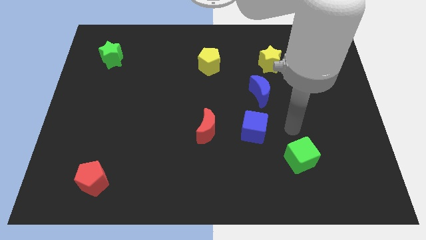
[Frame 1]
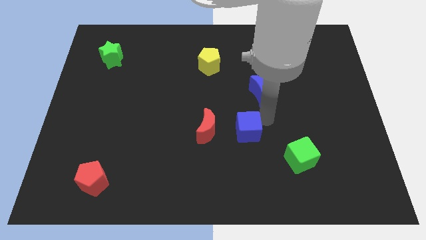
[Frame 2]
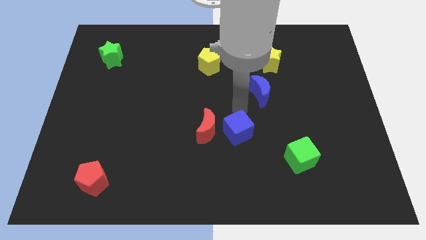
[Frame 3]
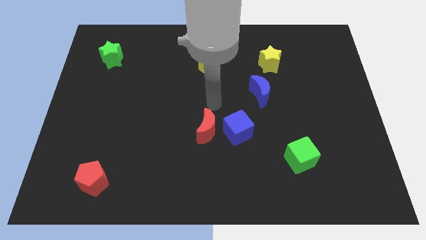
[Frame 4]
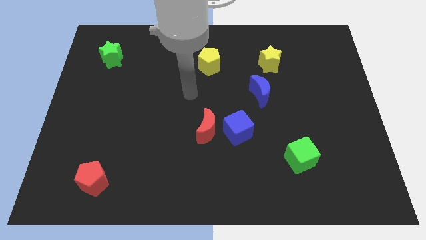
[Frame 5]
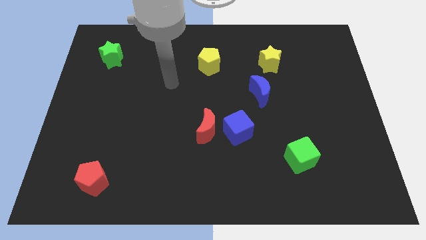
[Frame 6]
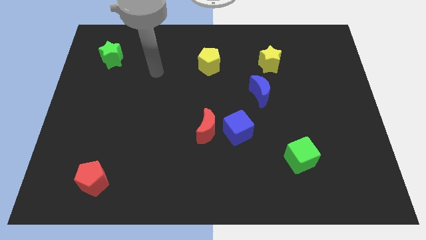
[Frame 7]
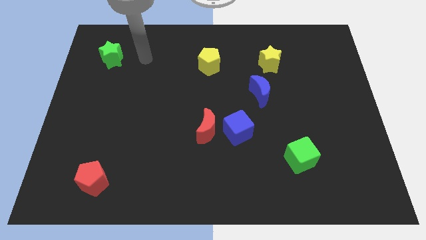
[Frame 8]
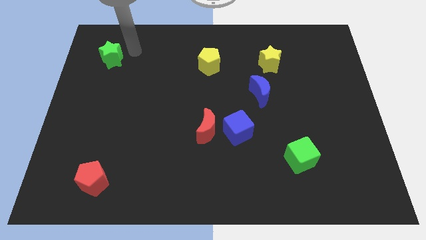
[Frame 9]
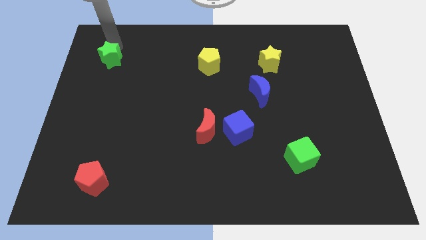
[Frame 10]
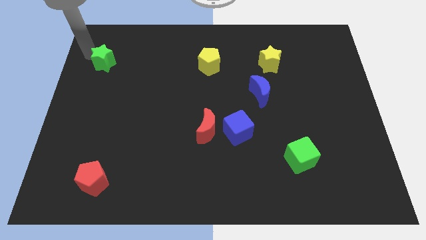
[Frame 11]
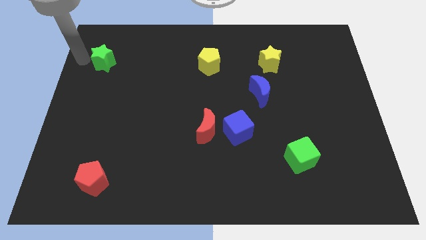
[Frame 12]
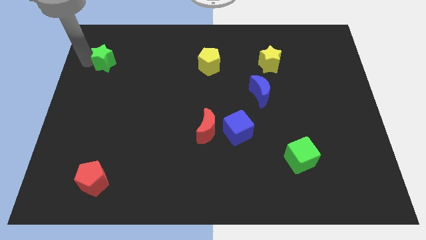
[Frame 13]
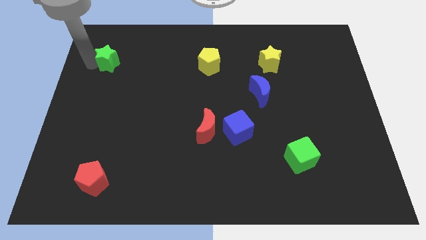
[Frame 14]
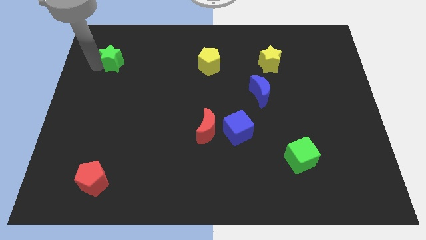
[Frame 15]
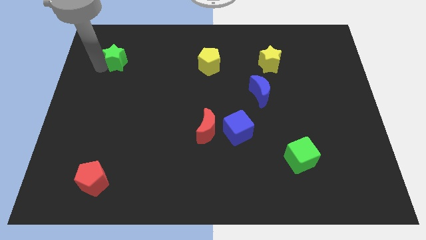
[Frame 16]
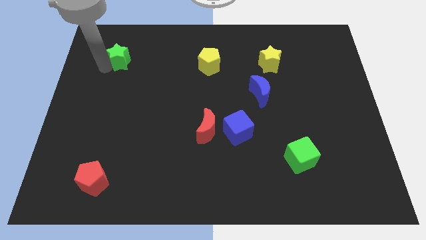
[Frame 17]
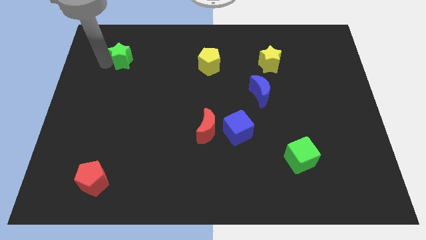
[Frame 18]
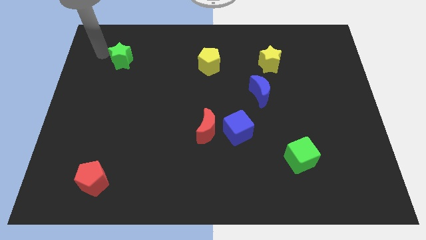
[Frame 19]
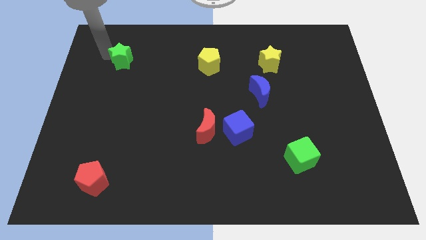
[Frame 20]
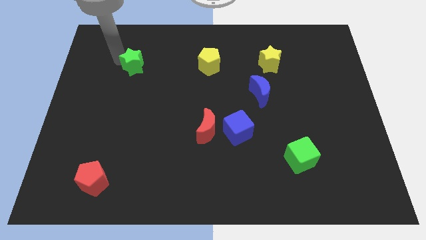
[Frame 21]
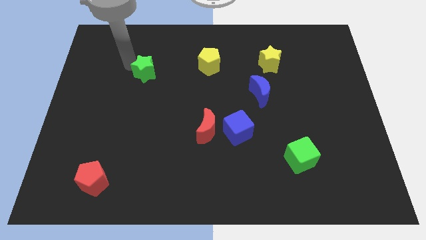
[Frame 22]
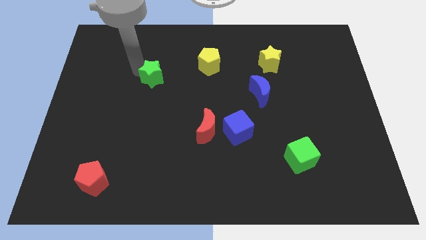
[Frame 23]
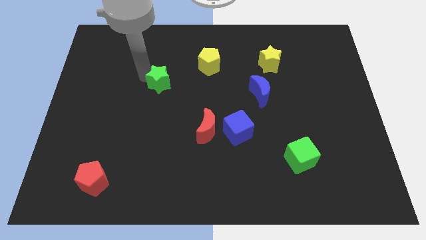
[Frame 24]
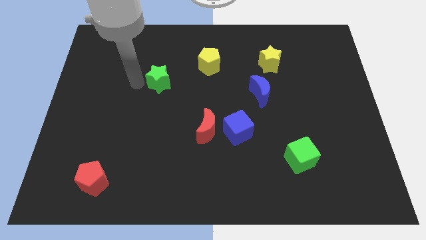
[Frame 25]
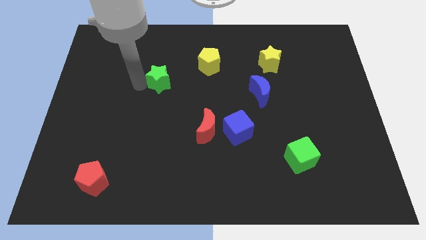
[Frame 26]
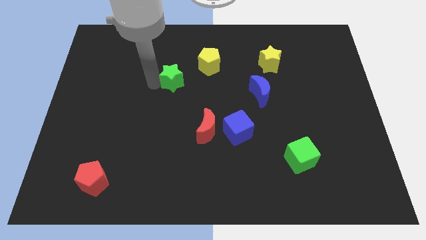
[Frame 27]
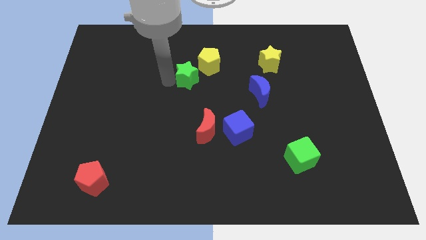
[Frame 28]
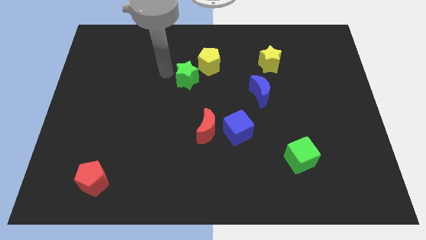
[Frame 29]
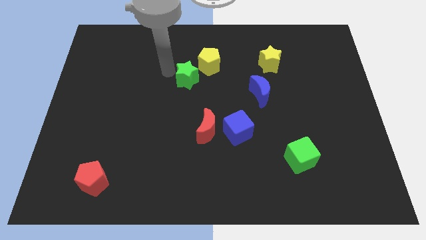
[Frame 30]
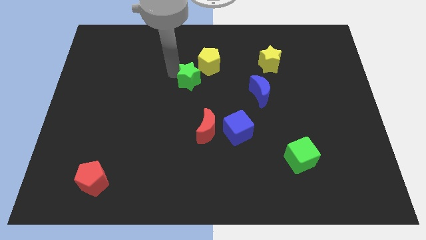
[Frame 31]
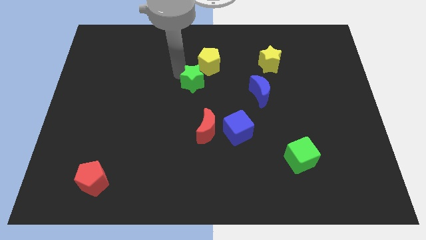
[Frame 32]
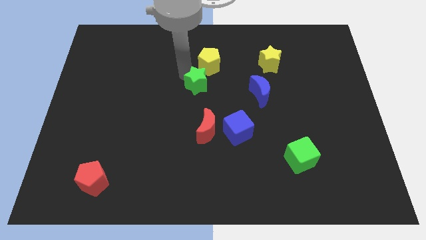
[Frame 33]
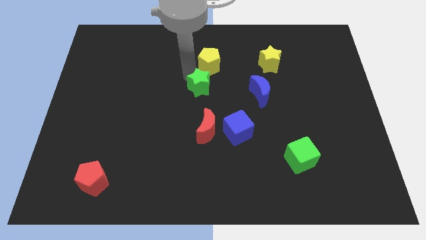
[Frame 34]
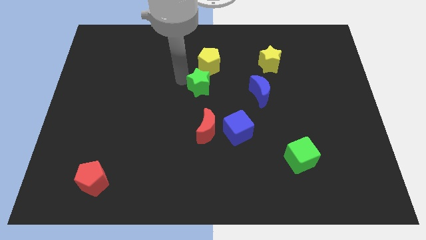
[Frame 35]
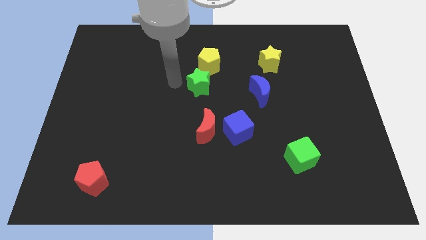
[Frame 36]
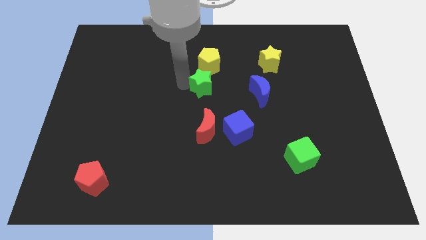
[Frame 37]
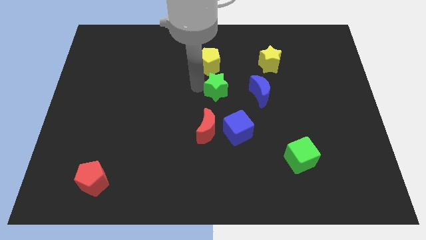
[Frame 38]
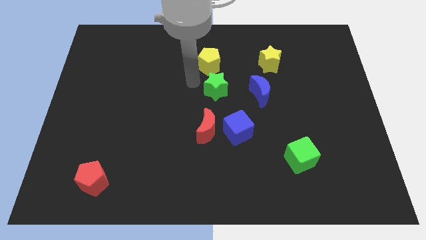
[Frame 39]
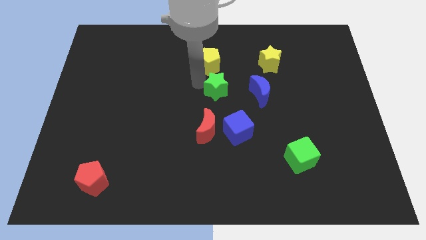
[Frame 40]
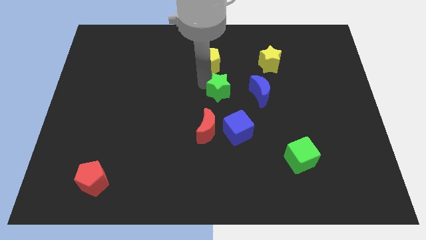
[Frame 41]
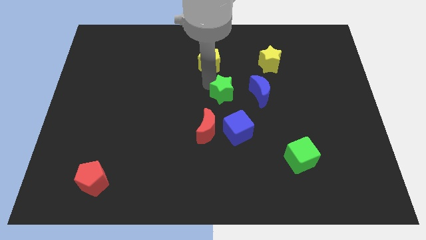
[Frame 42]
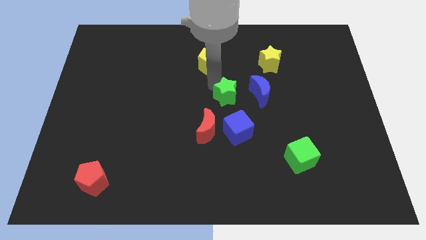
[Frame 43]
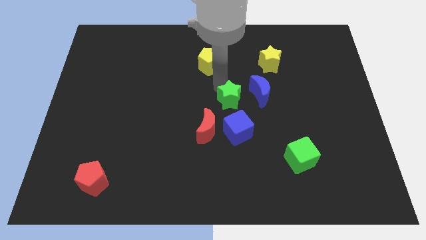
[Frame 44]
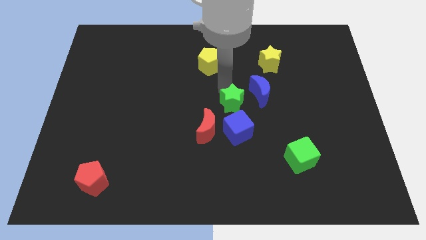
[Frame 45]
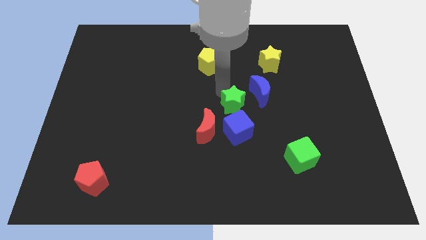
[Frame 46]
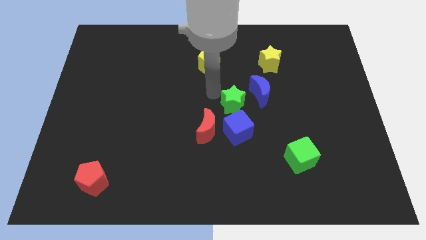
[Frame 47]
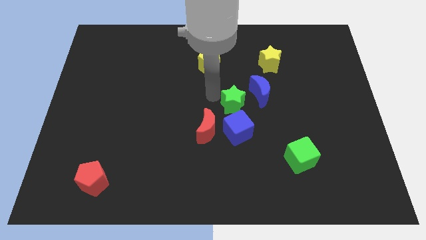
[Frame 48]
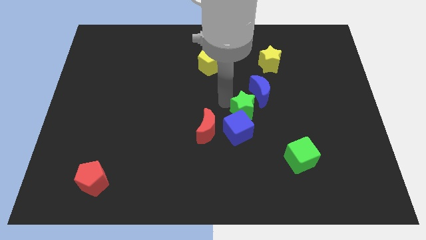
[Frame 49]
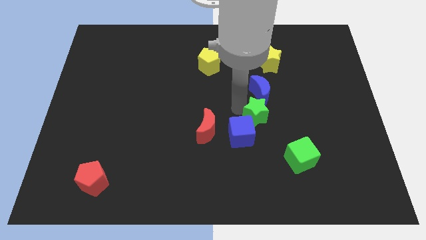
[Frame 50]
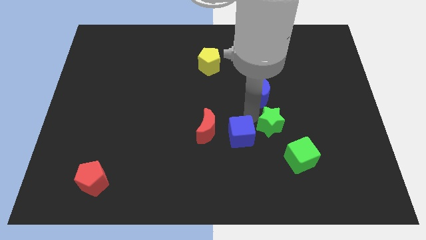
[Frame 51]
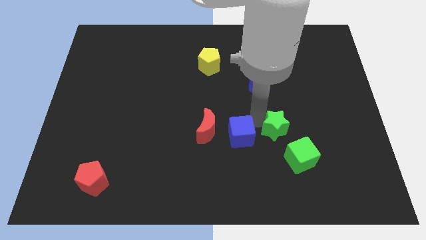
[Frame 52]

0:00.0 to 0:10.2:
move the green star to the top side of the green cube

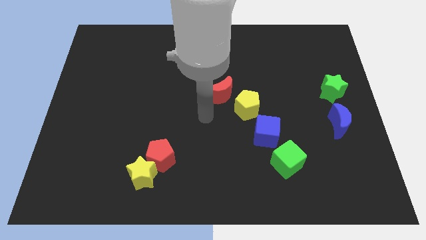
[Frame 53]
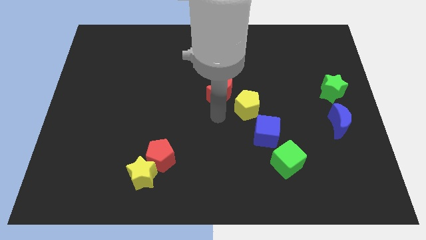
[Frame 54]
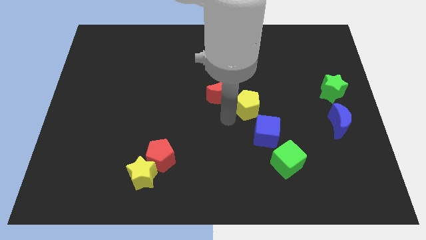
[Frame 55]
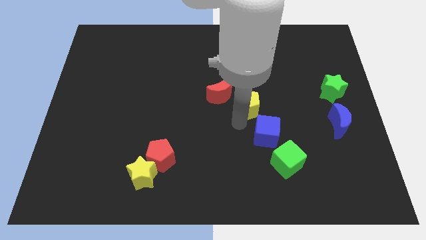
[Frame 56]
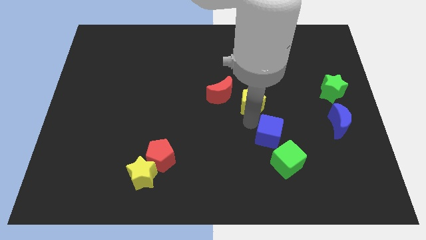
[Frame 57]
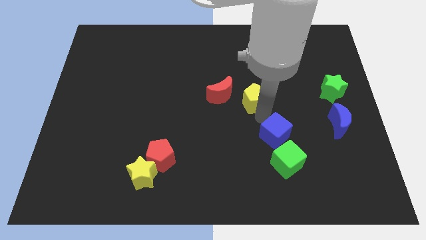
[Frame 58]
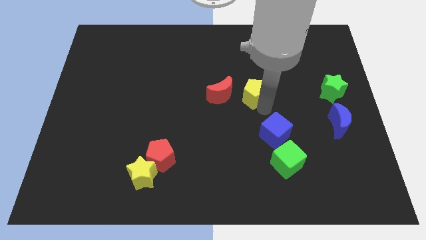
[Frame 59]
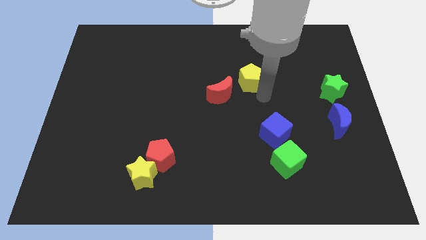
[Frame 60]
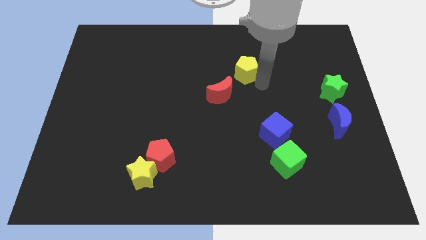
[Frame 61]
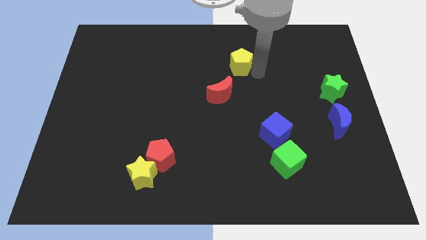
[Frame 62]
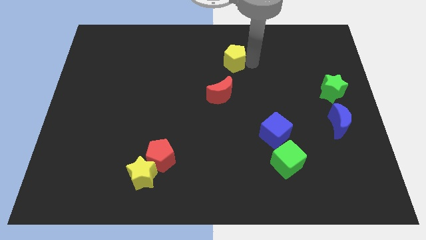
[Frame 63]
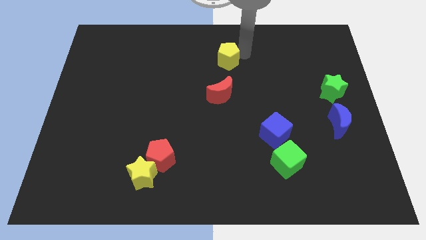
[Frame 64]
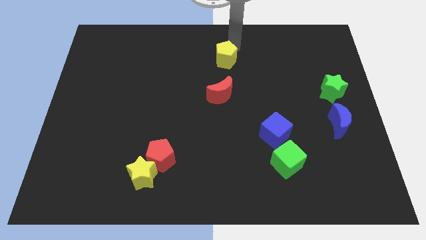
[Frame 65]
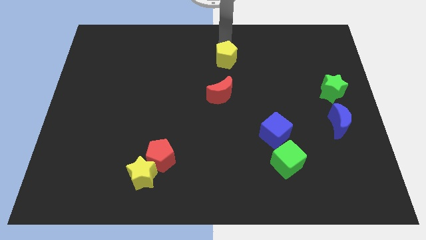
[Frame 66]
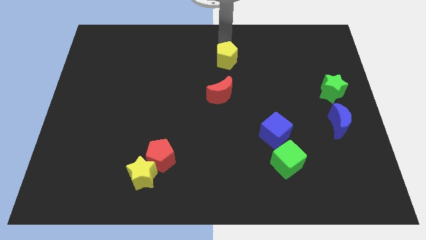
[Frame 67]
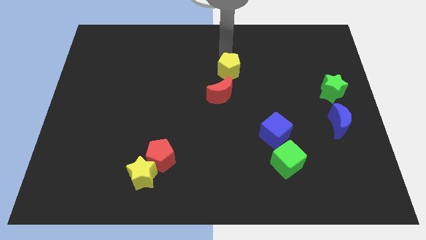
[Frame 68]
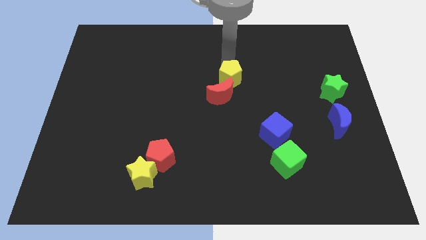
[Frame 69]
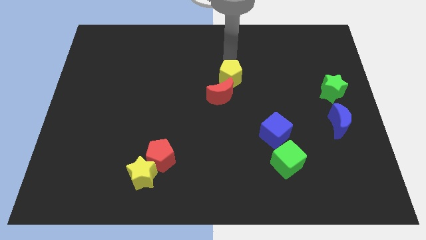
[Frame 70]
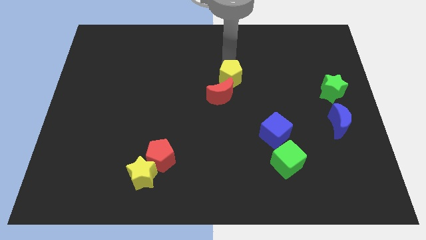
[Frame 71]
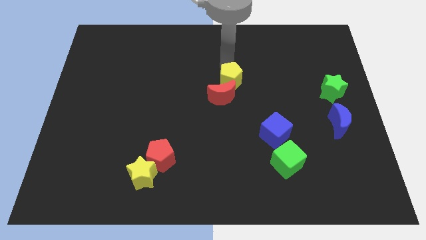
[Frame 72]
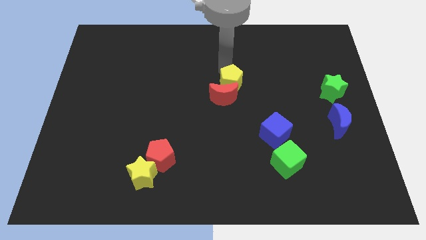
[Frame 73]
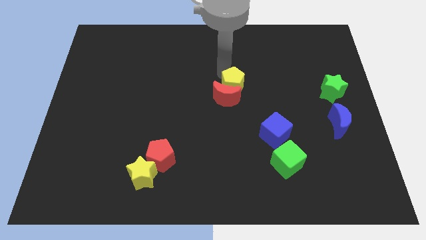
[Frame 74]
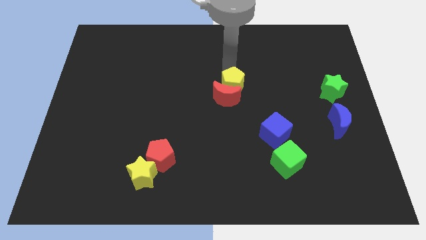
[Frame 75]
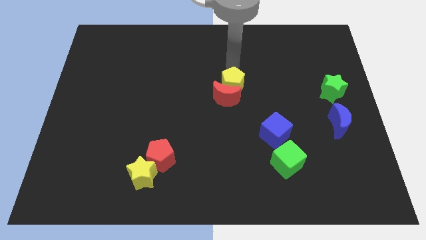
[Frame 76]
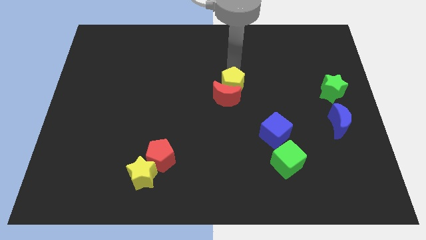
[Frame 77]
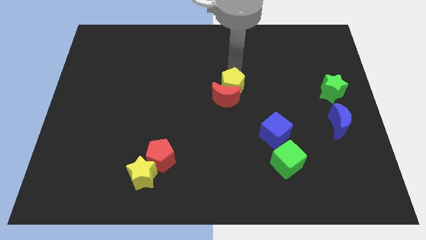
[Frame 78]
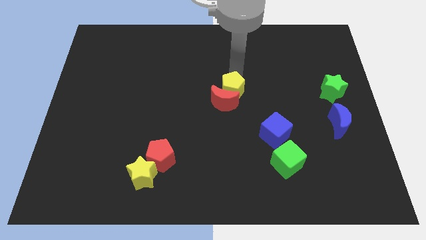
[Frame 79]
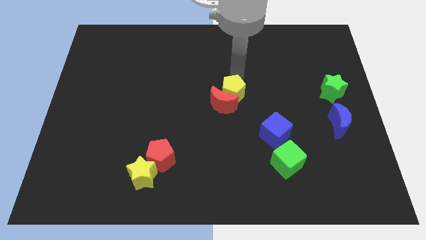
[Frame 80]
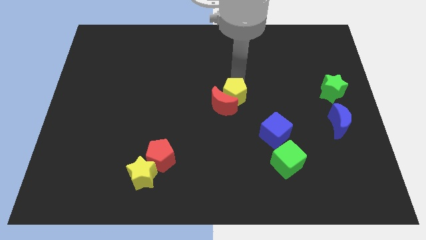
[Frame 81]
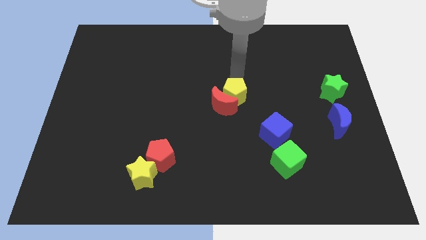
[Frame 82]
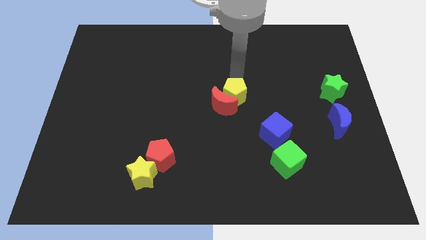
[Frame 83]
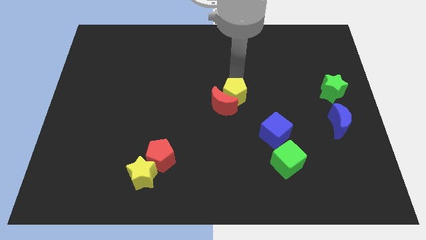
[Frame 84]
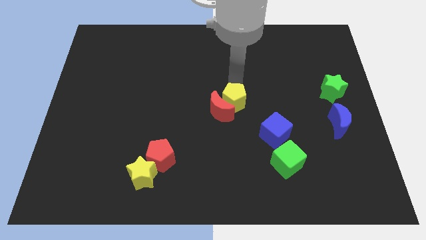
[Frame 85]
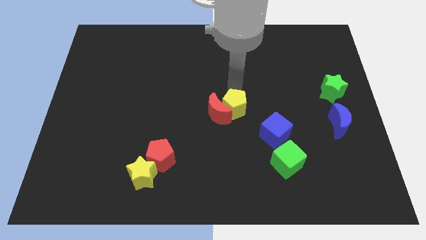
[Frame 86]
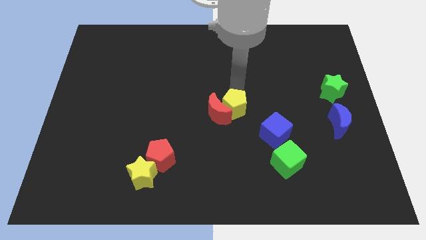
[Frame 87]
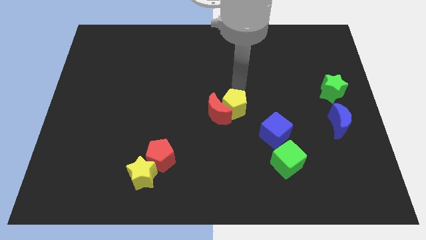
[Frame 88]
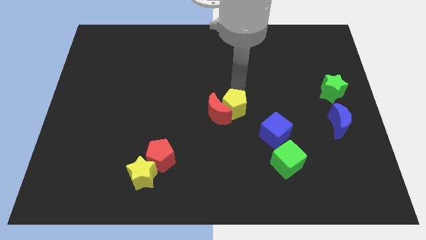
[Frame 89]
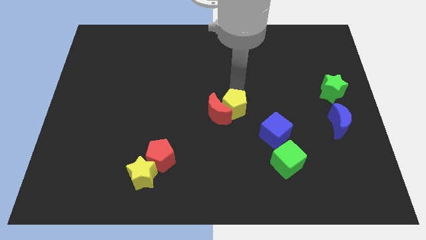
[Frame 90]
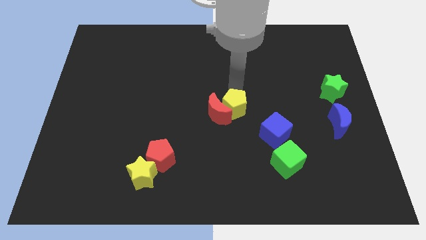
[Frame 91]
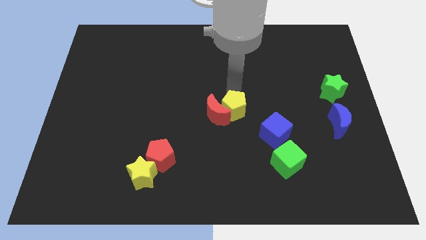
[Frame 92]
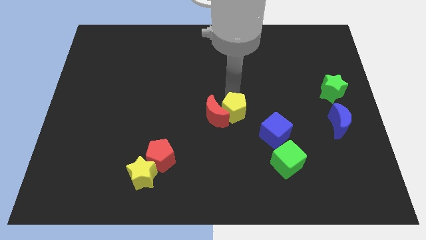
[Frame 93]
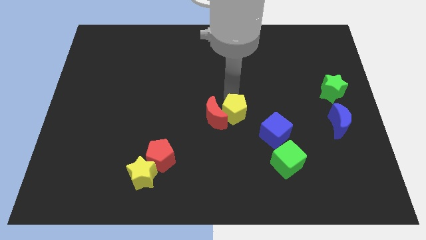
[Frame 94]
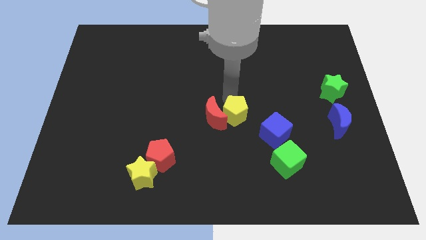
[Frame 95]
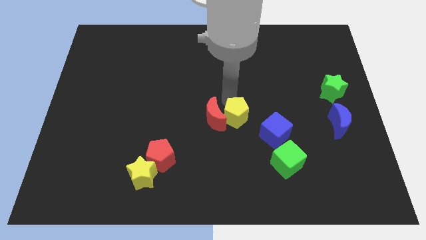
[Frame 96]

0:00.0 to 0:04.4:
slide the yellow pentagon left of the blue cube
